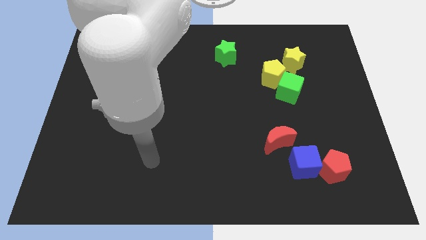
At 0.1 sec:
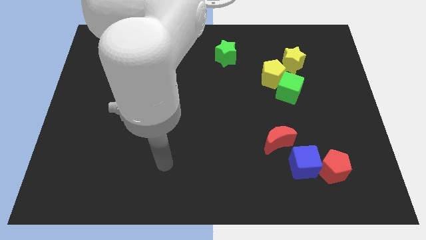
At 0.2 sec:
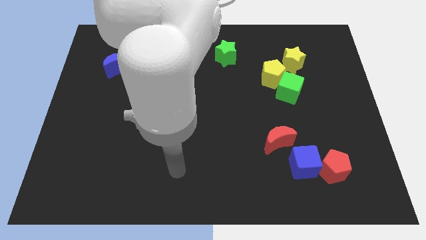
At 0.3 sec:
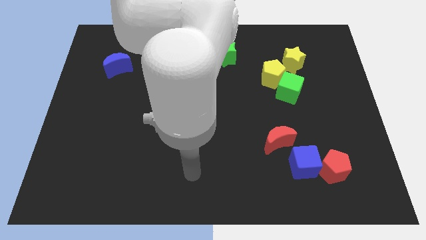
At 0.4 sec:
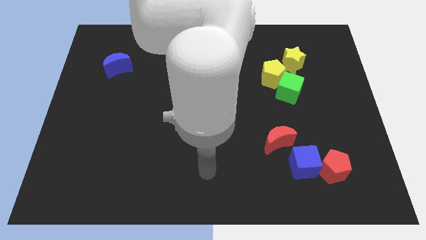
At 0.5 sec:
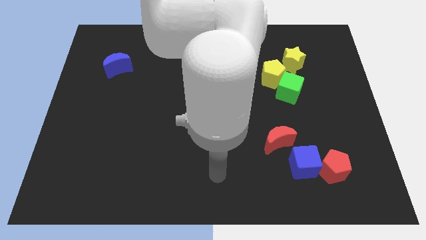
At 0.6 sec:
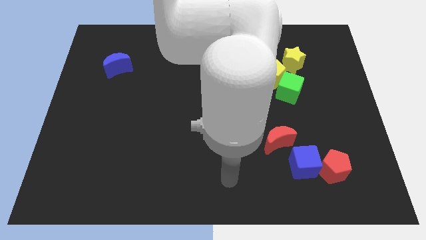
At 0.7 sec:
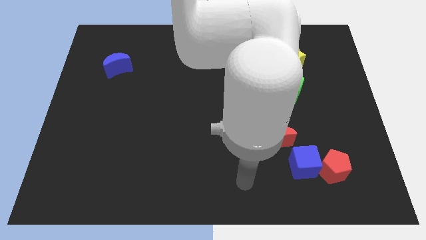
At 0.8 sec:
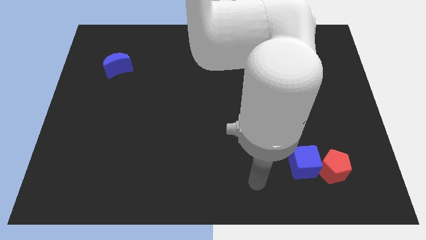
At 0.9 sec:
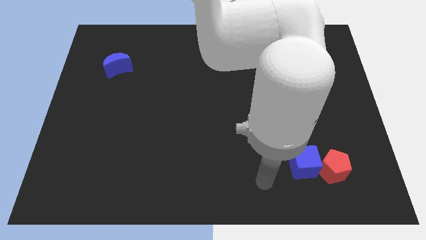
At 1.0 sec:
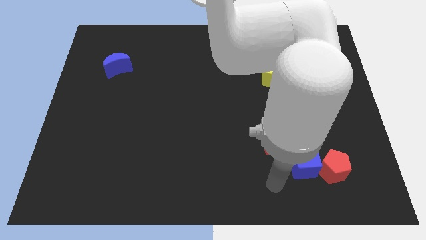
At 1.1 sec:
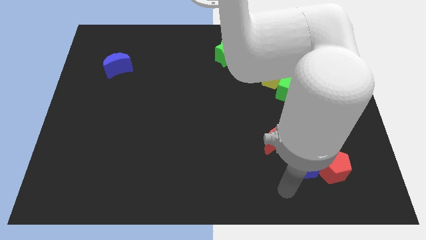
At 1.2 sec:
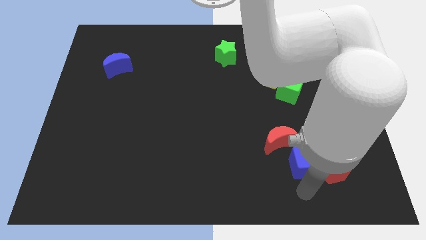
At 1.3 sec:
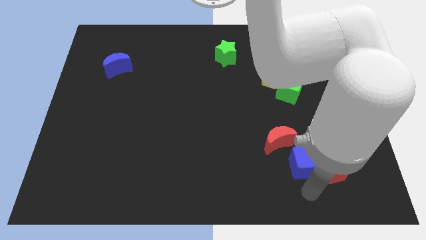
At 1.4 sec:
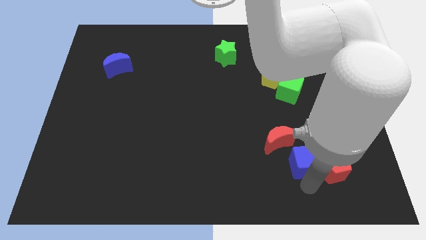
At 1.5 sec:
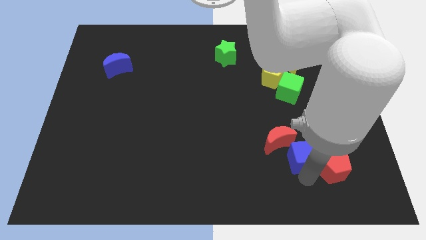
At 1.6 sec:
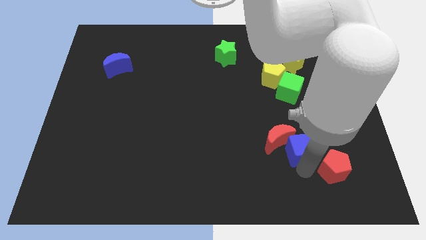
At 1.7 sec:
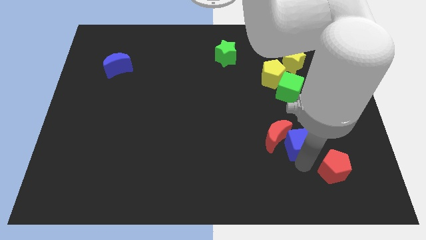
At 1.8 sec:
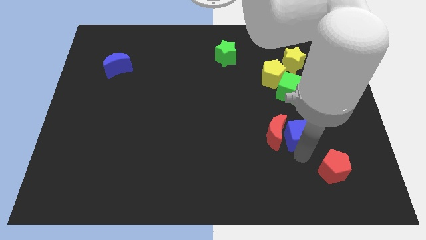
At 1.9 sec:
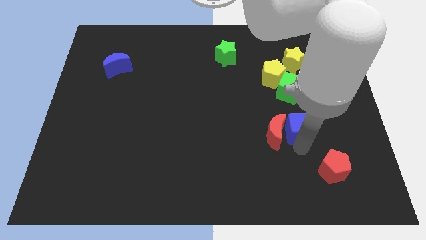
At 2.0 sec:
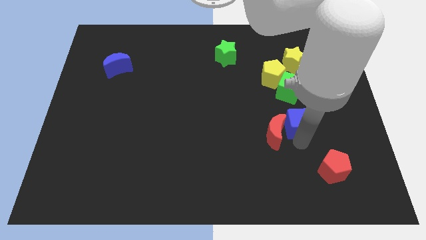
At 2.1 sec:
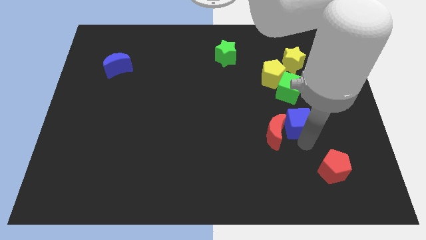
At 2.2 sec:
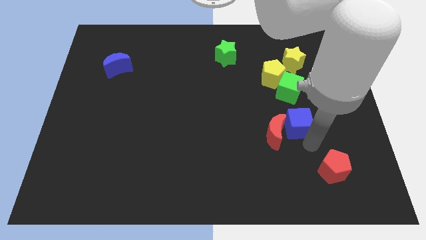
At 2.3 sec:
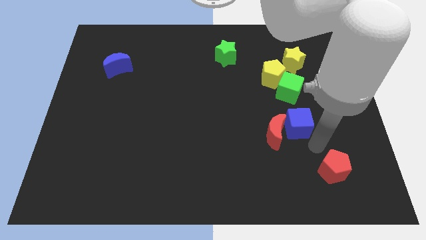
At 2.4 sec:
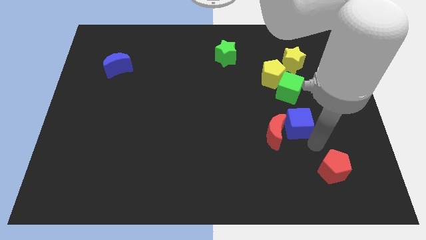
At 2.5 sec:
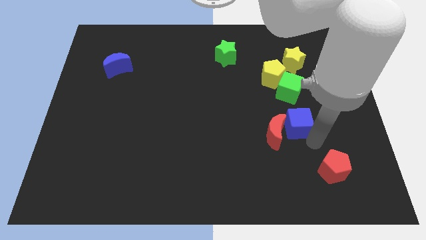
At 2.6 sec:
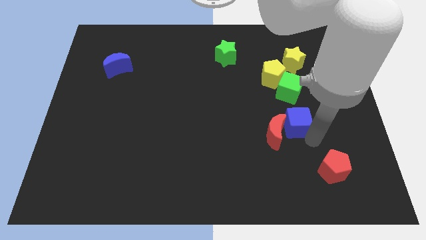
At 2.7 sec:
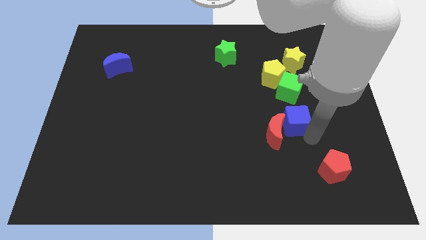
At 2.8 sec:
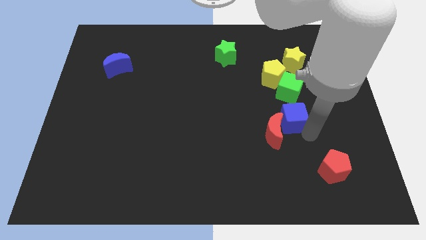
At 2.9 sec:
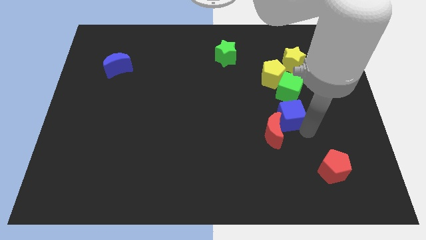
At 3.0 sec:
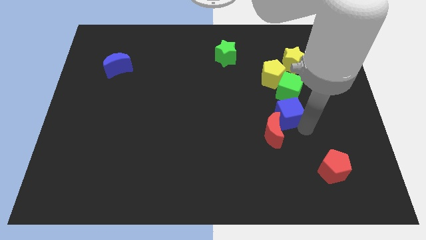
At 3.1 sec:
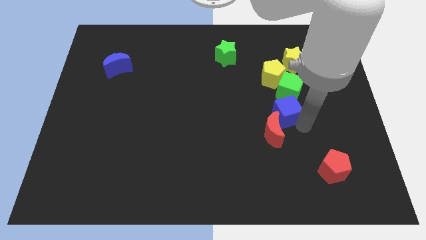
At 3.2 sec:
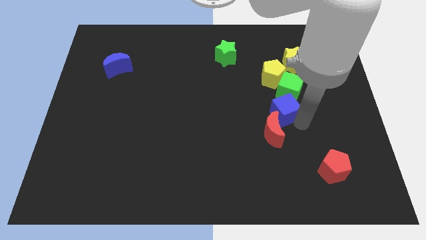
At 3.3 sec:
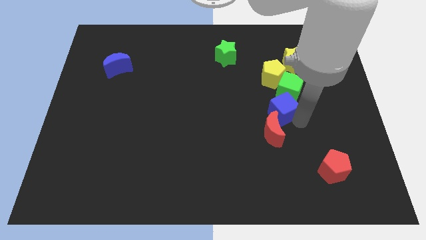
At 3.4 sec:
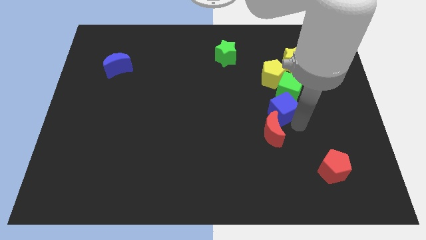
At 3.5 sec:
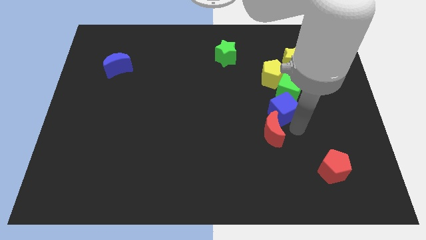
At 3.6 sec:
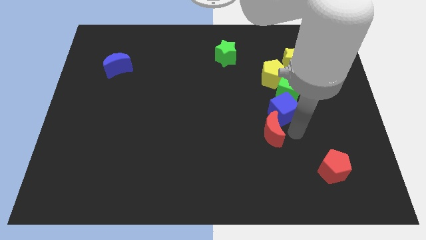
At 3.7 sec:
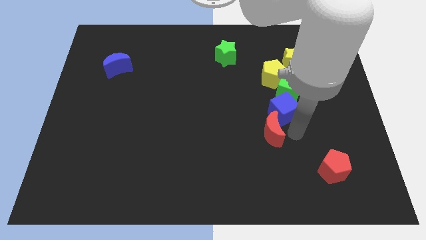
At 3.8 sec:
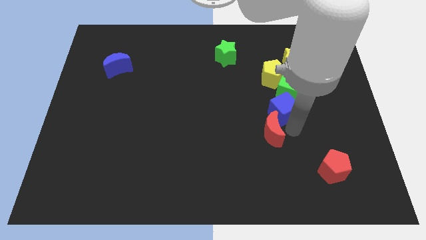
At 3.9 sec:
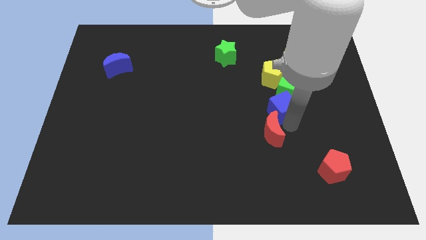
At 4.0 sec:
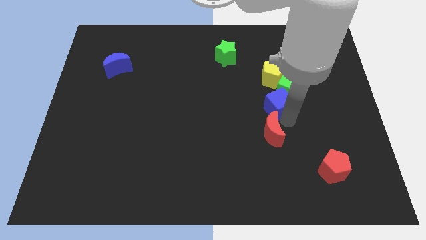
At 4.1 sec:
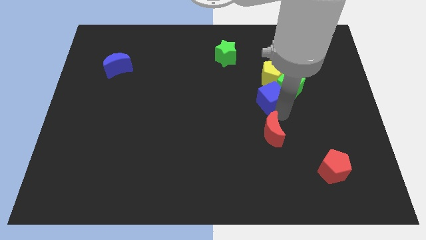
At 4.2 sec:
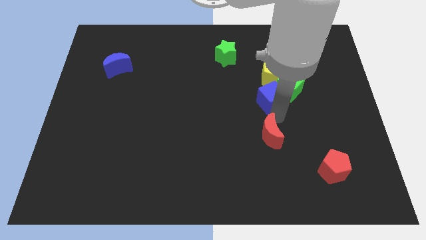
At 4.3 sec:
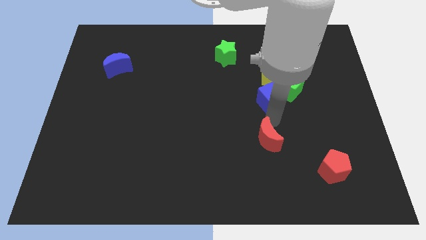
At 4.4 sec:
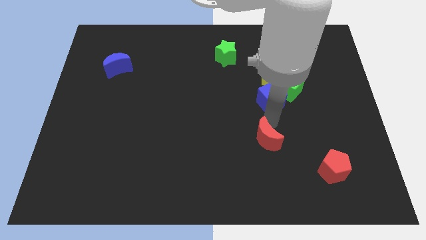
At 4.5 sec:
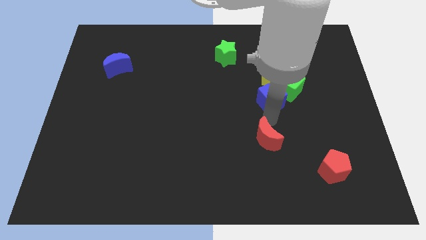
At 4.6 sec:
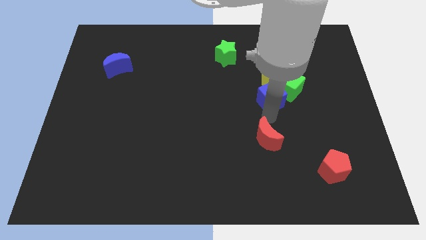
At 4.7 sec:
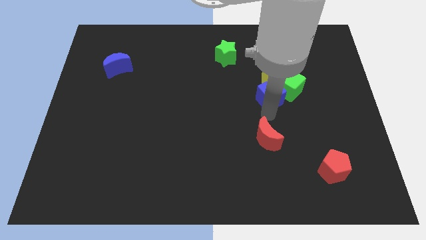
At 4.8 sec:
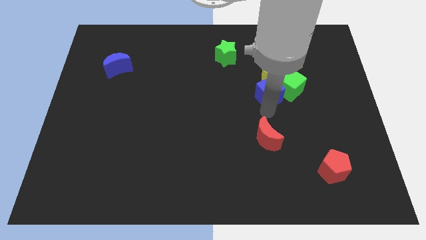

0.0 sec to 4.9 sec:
push the blue cube close to the yellow pentagon

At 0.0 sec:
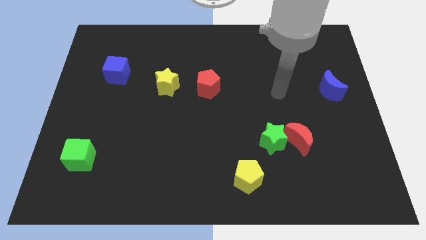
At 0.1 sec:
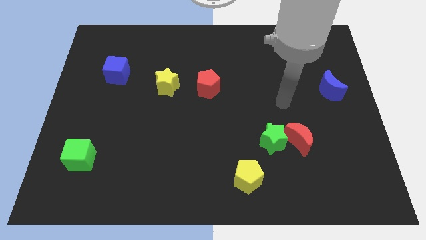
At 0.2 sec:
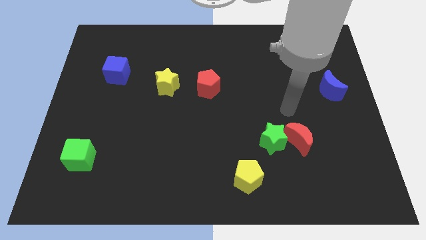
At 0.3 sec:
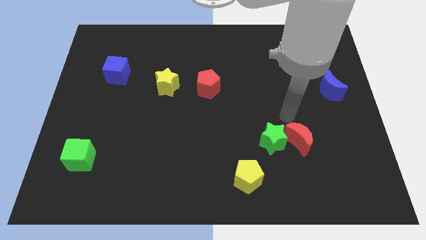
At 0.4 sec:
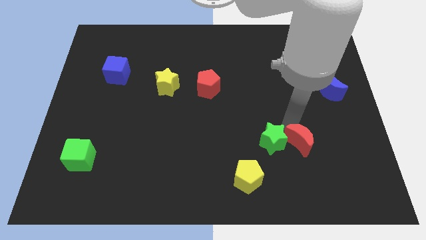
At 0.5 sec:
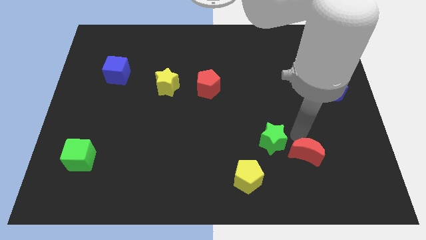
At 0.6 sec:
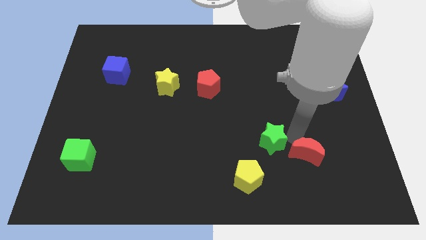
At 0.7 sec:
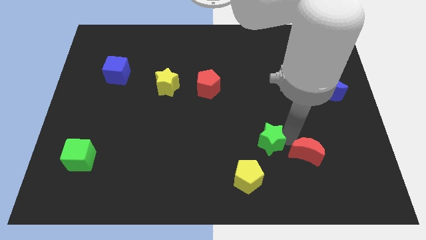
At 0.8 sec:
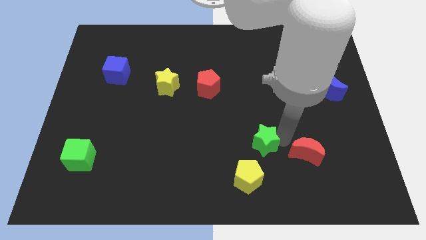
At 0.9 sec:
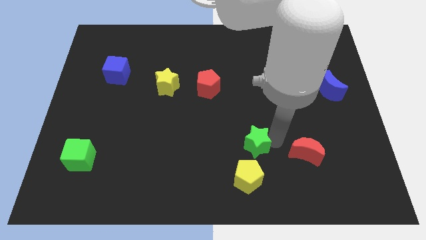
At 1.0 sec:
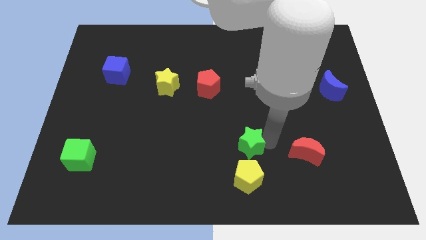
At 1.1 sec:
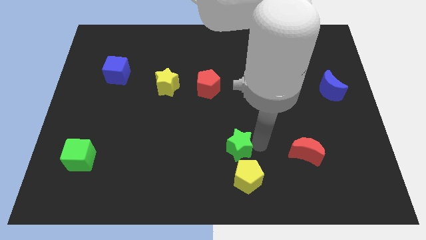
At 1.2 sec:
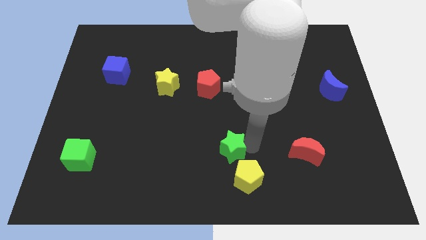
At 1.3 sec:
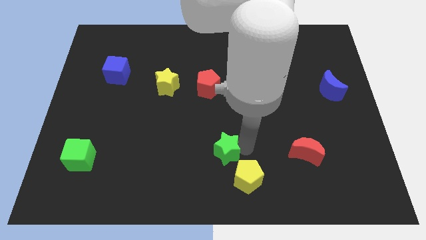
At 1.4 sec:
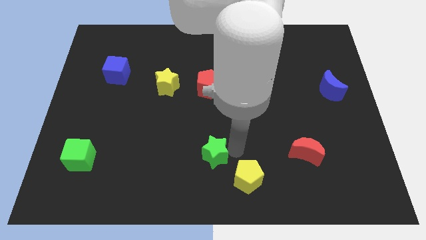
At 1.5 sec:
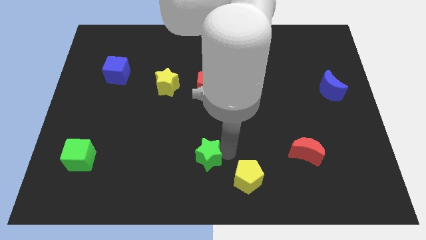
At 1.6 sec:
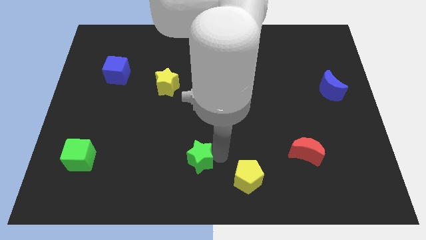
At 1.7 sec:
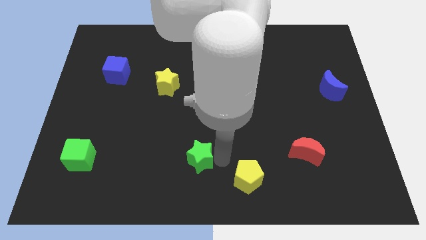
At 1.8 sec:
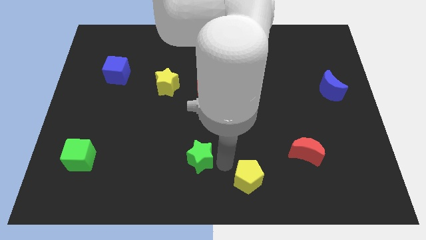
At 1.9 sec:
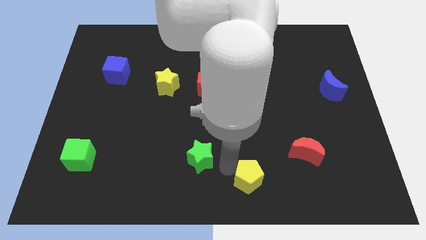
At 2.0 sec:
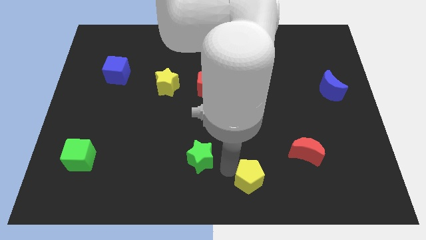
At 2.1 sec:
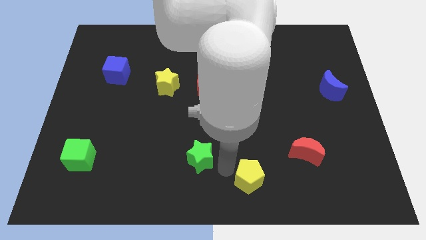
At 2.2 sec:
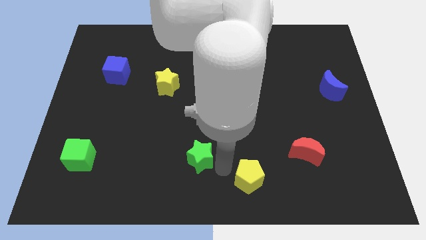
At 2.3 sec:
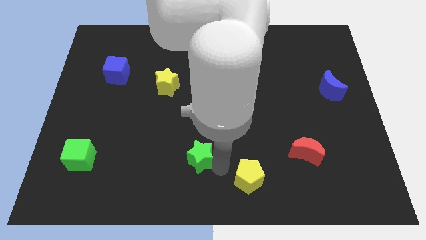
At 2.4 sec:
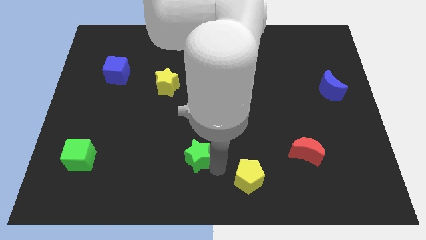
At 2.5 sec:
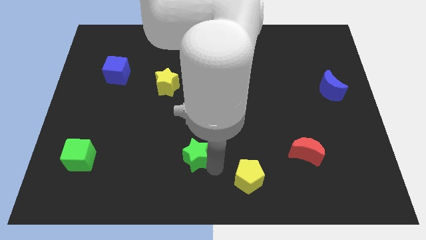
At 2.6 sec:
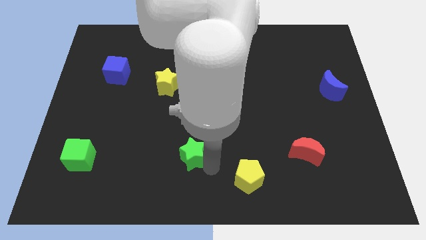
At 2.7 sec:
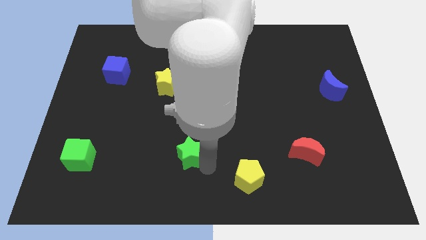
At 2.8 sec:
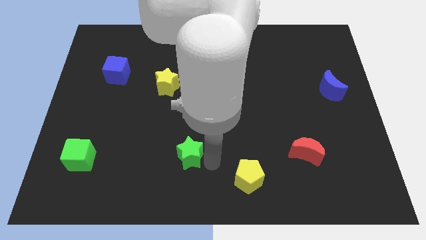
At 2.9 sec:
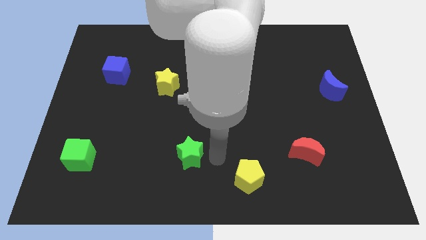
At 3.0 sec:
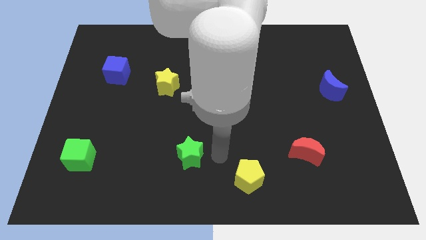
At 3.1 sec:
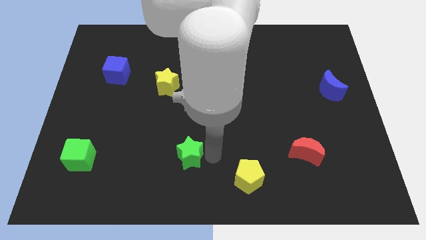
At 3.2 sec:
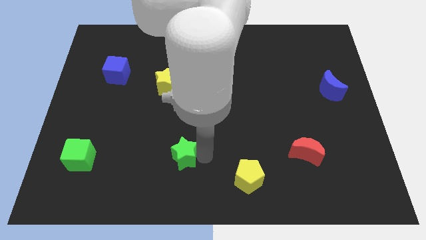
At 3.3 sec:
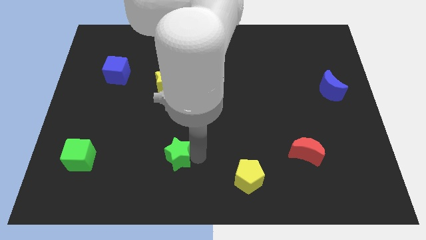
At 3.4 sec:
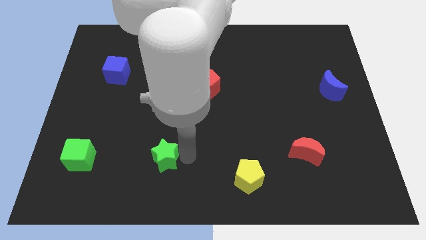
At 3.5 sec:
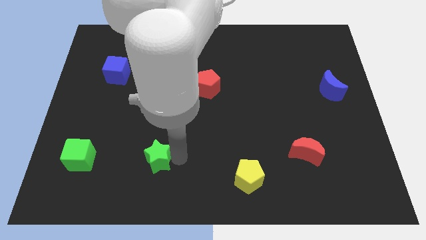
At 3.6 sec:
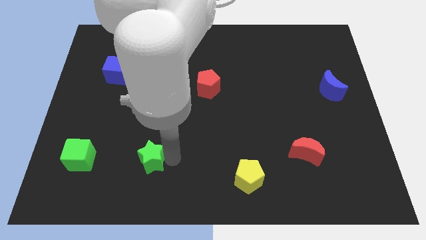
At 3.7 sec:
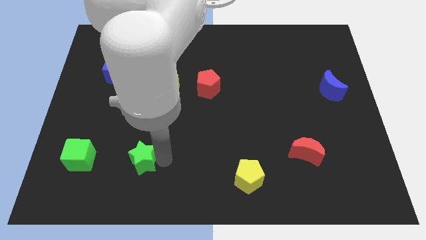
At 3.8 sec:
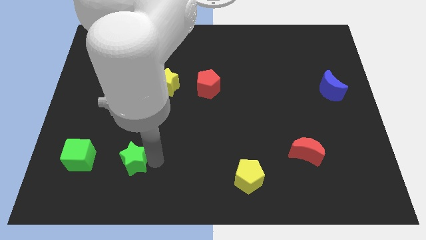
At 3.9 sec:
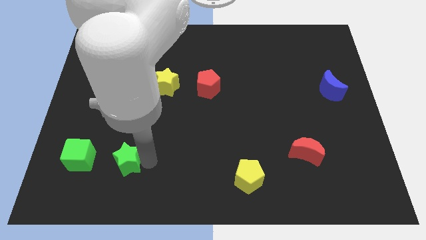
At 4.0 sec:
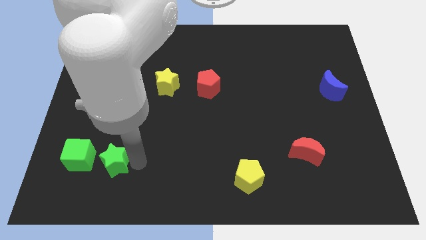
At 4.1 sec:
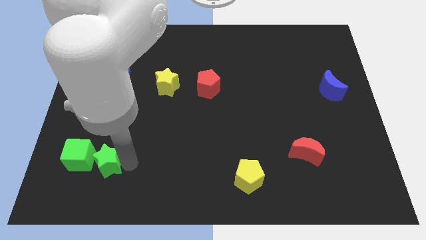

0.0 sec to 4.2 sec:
slide the green star towards the green cube
